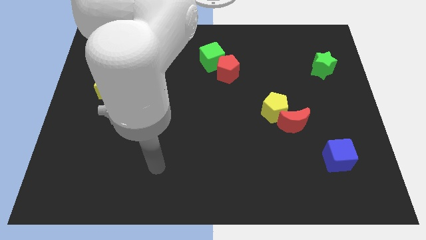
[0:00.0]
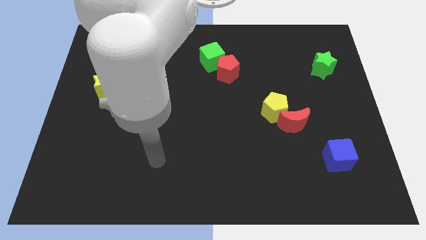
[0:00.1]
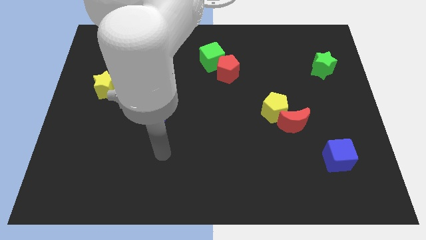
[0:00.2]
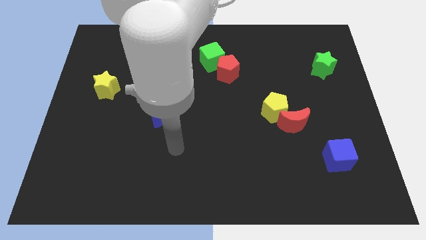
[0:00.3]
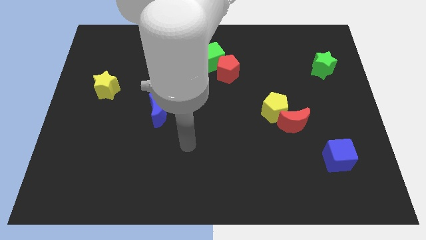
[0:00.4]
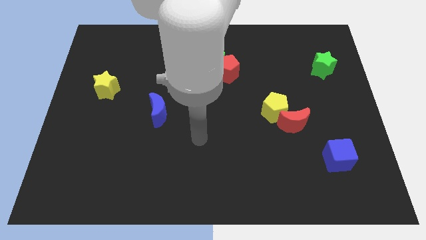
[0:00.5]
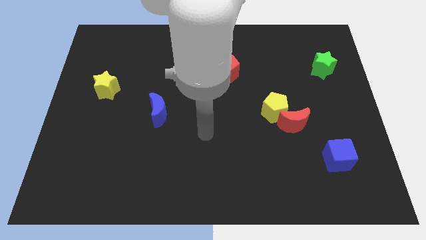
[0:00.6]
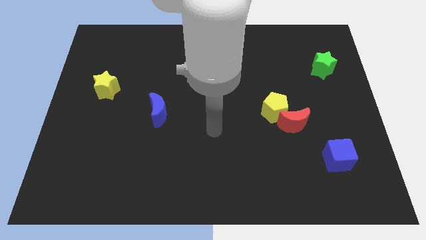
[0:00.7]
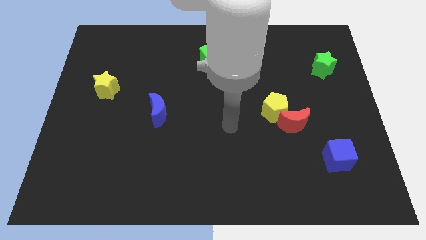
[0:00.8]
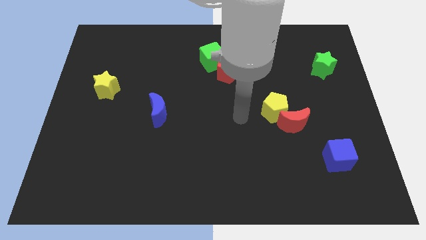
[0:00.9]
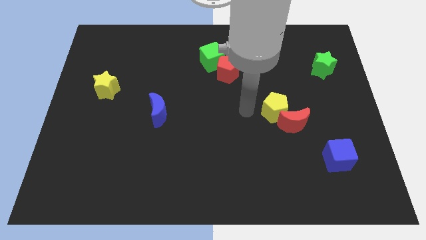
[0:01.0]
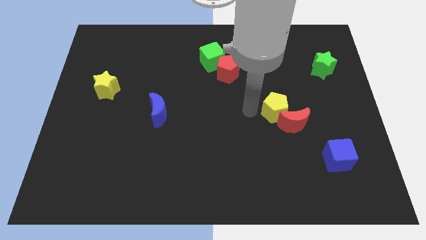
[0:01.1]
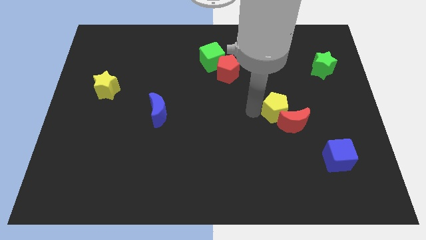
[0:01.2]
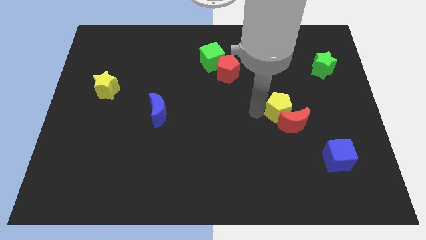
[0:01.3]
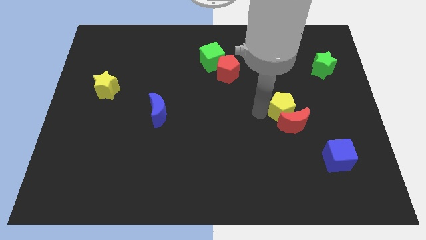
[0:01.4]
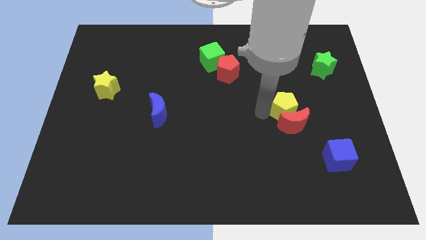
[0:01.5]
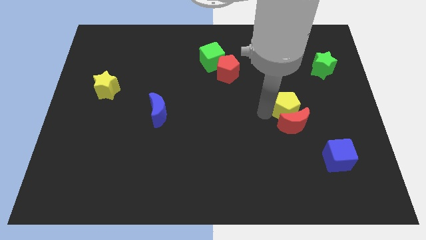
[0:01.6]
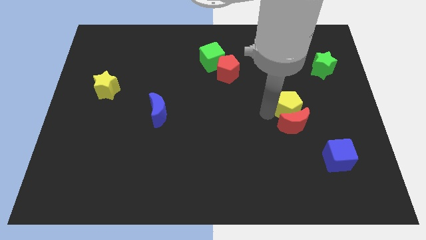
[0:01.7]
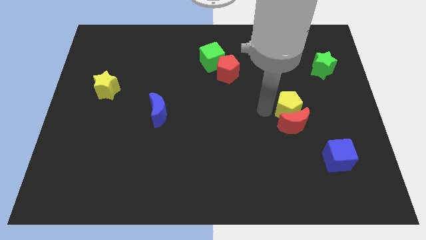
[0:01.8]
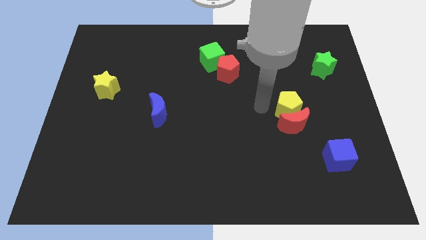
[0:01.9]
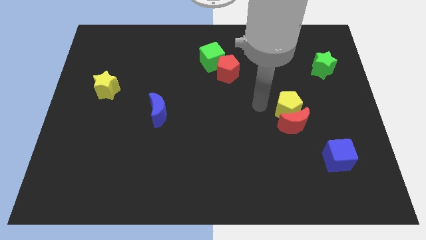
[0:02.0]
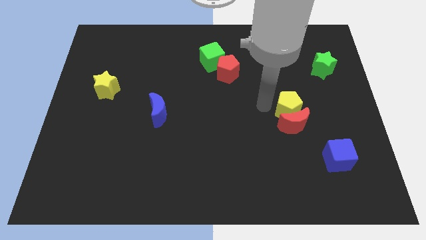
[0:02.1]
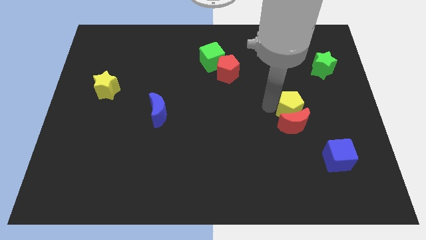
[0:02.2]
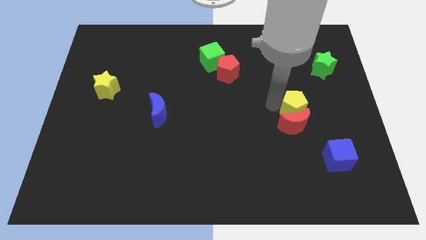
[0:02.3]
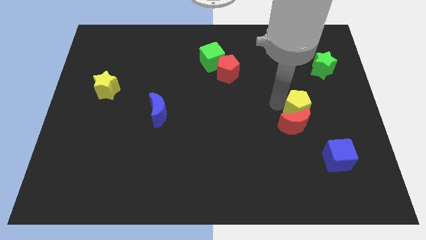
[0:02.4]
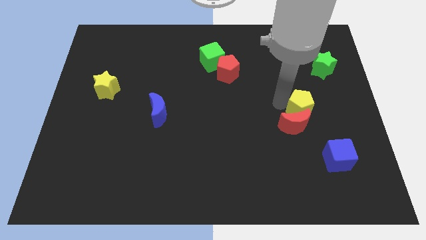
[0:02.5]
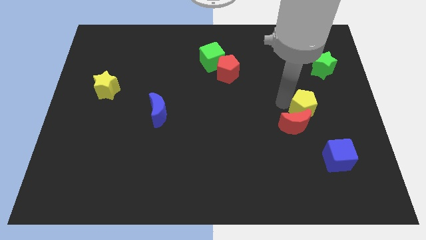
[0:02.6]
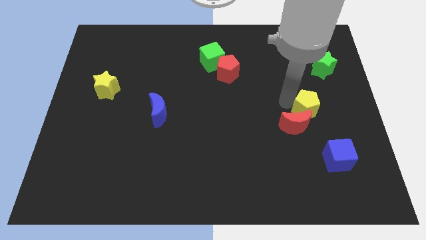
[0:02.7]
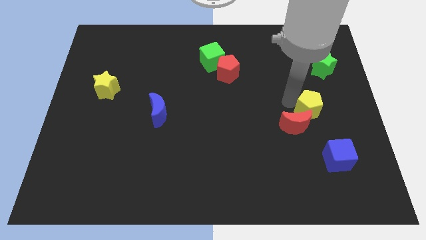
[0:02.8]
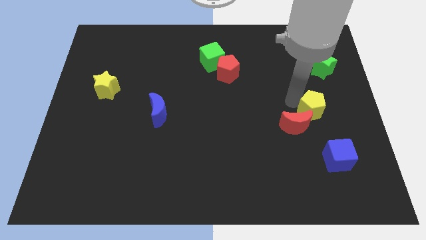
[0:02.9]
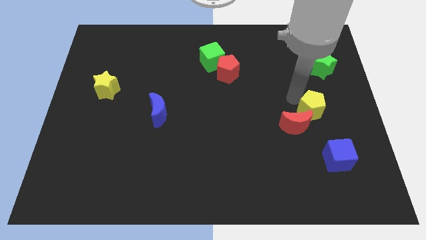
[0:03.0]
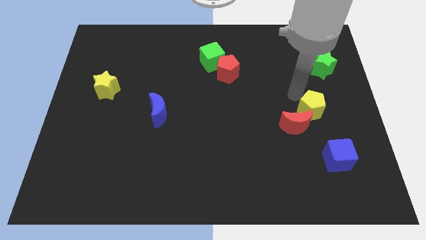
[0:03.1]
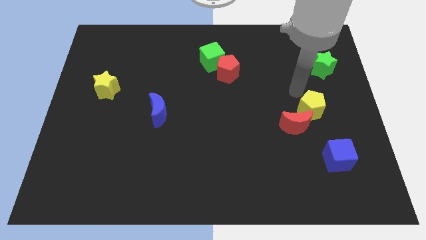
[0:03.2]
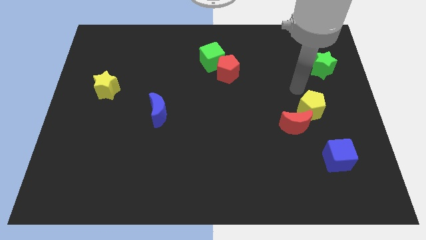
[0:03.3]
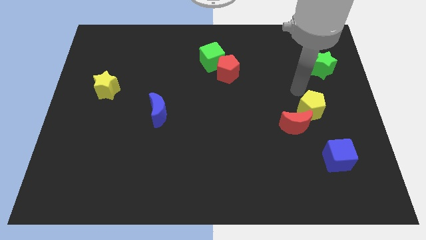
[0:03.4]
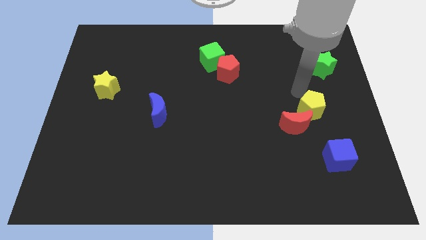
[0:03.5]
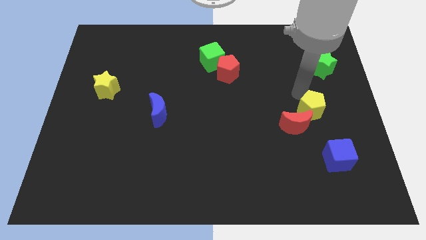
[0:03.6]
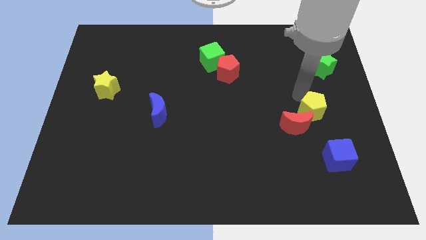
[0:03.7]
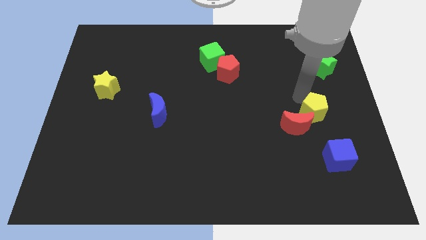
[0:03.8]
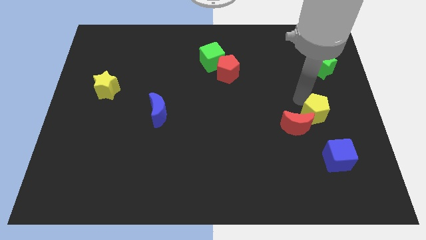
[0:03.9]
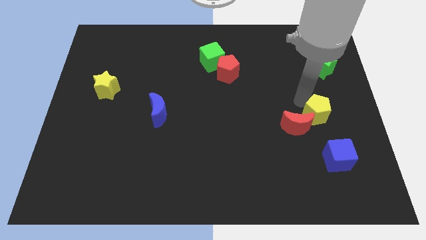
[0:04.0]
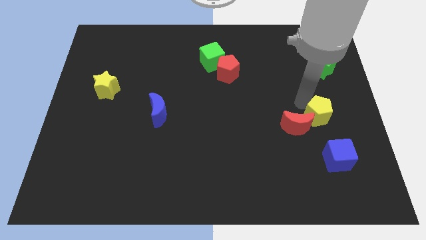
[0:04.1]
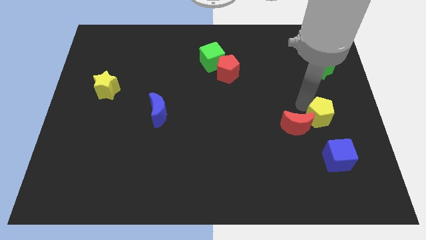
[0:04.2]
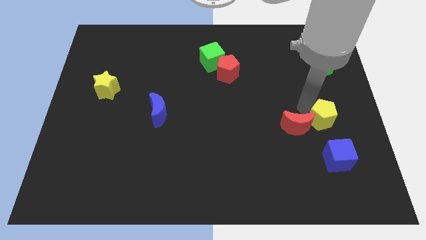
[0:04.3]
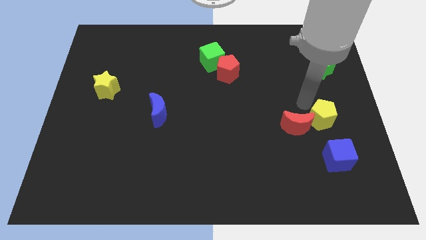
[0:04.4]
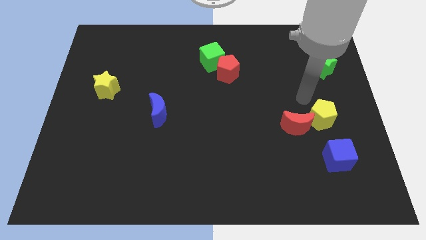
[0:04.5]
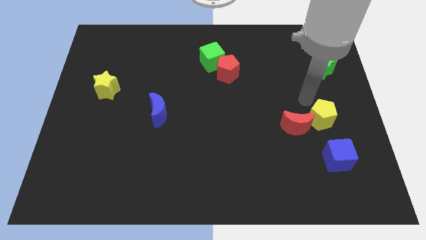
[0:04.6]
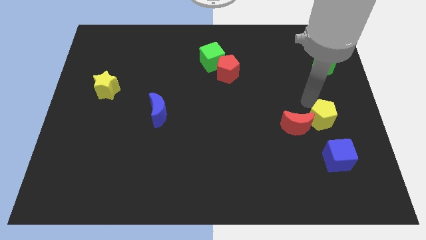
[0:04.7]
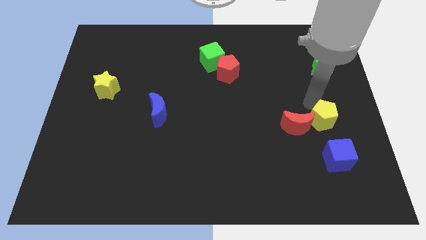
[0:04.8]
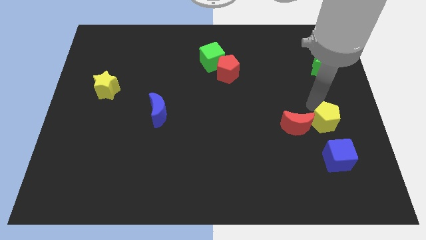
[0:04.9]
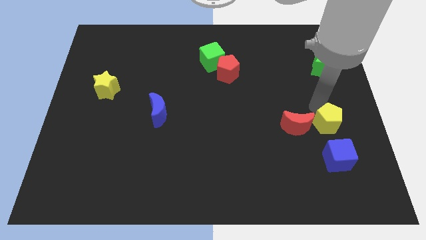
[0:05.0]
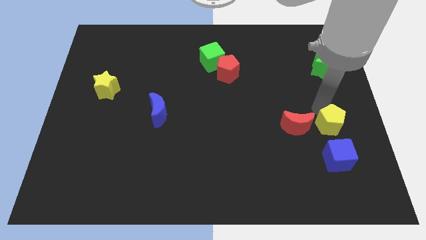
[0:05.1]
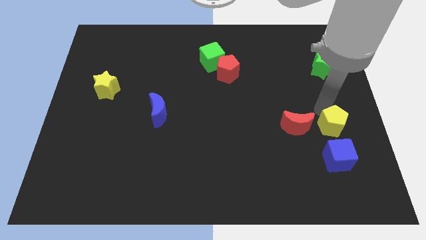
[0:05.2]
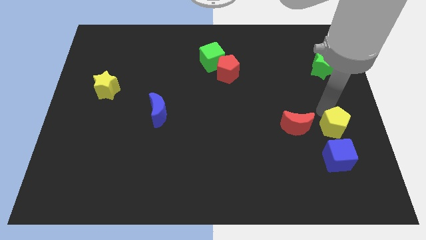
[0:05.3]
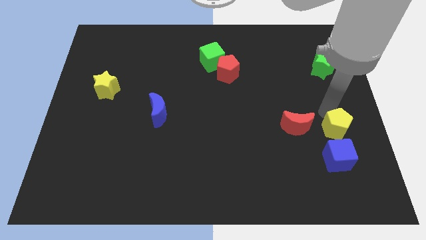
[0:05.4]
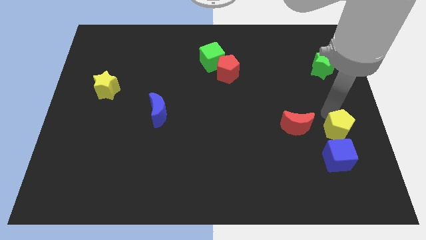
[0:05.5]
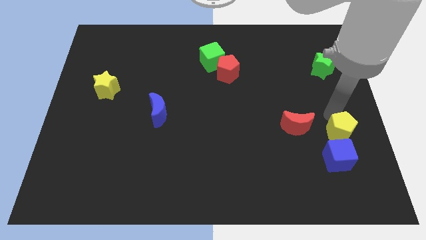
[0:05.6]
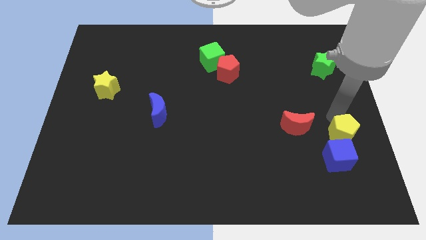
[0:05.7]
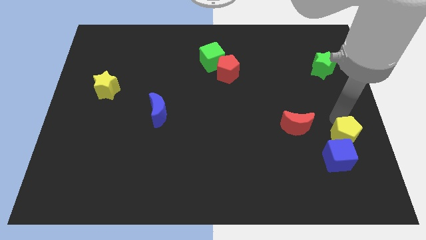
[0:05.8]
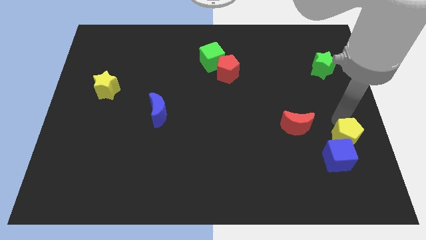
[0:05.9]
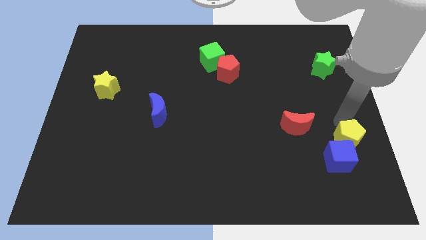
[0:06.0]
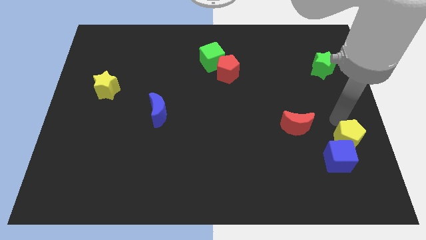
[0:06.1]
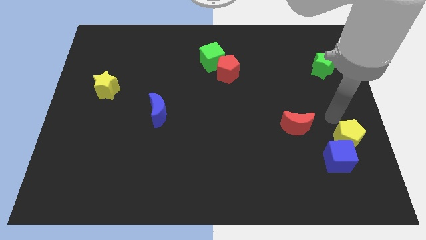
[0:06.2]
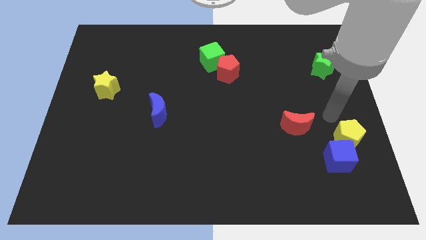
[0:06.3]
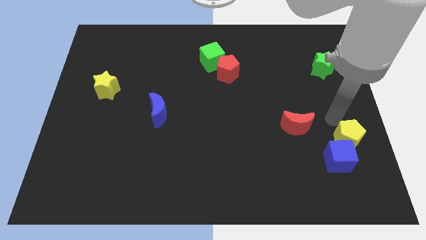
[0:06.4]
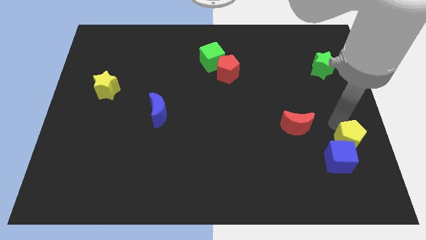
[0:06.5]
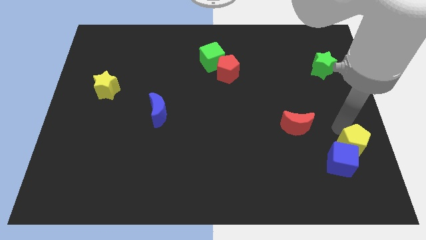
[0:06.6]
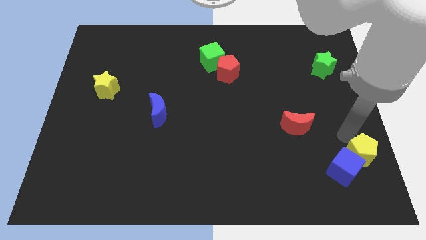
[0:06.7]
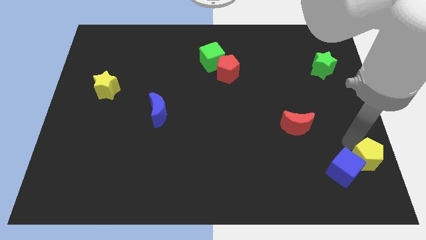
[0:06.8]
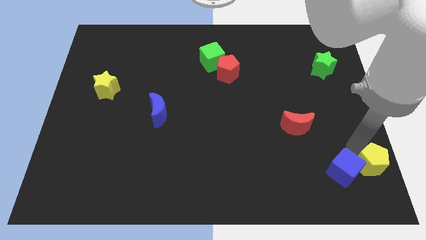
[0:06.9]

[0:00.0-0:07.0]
put the yellow pentagon to the lower right corner
